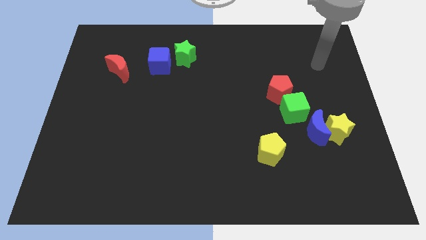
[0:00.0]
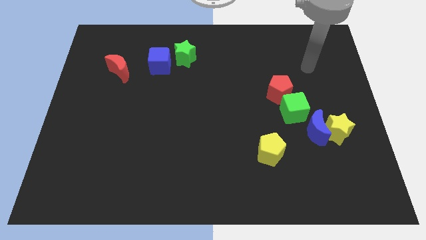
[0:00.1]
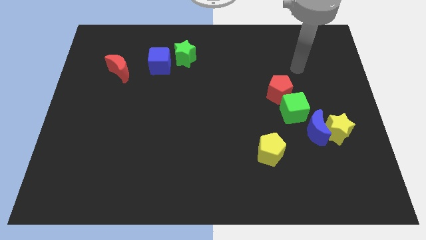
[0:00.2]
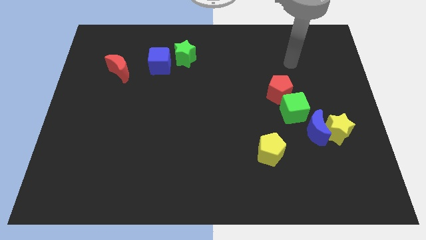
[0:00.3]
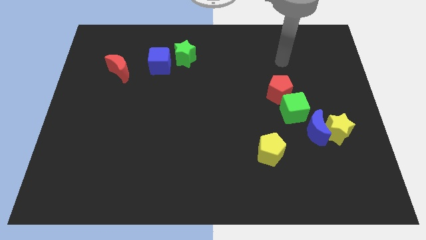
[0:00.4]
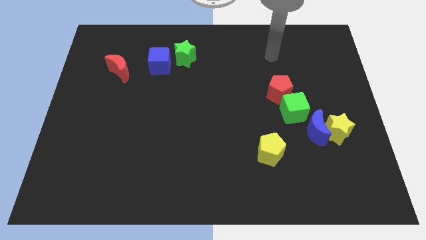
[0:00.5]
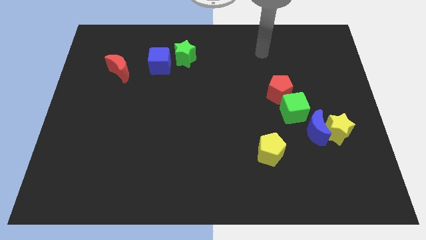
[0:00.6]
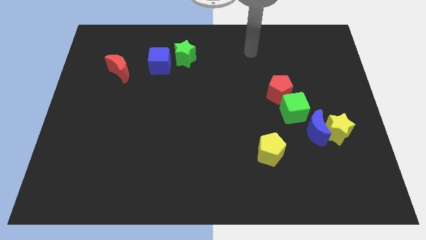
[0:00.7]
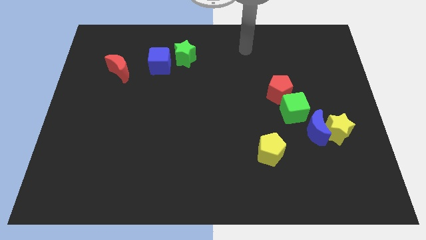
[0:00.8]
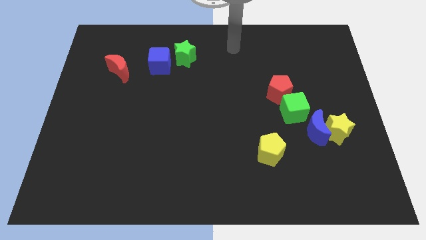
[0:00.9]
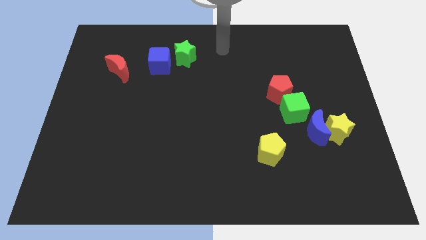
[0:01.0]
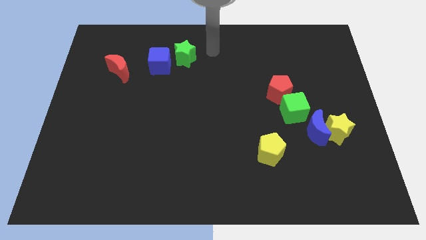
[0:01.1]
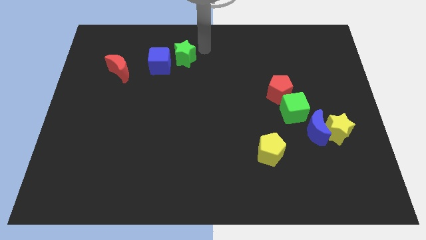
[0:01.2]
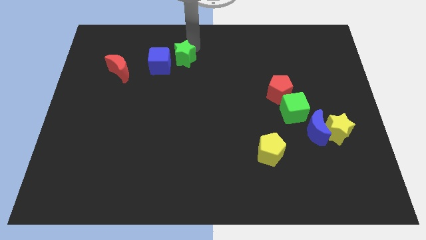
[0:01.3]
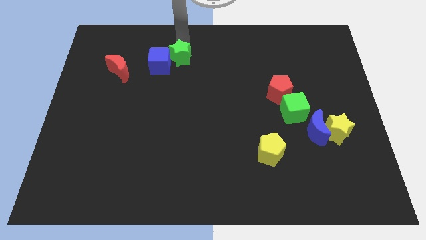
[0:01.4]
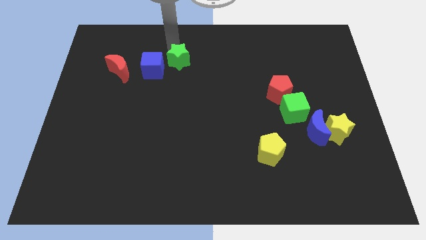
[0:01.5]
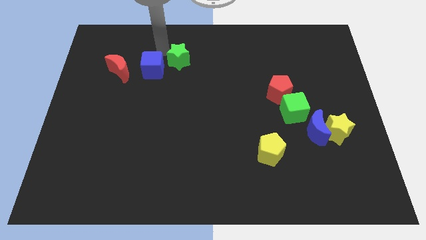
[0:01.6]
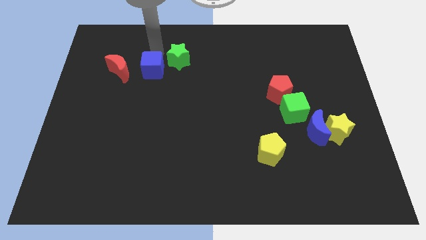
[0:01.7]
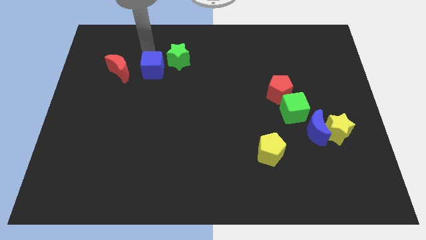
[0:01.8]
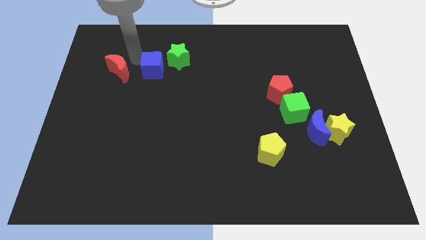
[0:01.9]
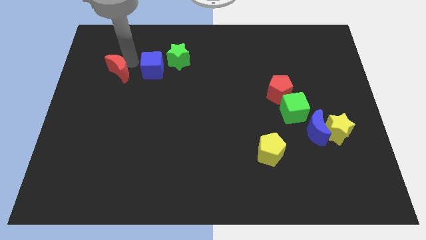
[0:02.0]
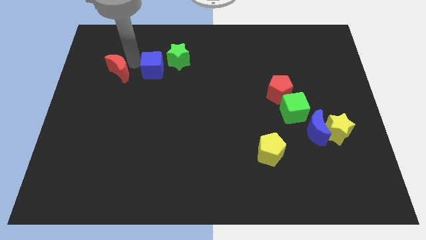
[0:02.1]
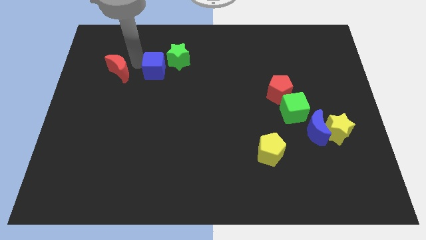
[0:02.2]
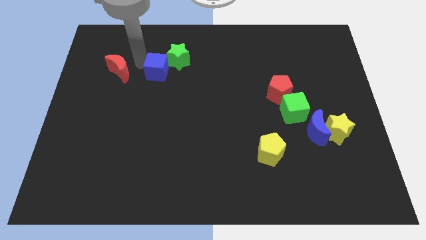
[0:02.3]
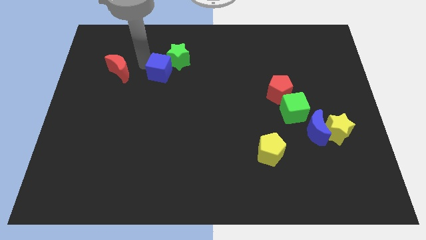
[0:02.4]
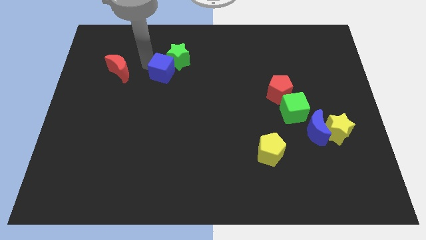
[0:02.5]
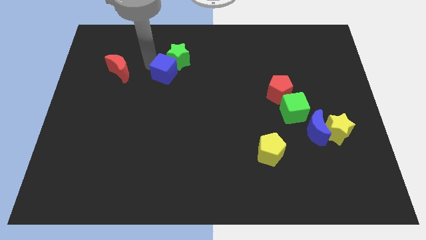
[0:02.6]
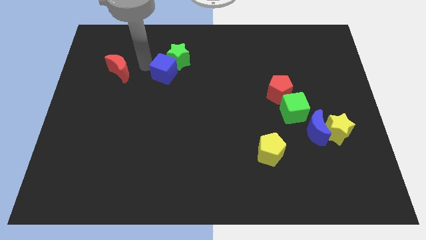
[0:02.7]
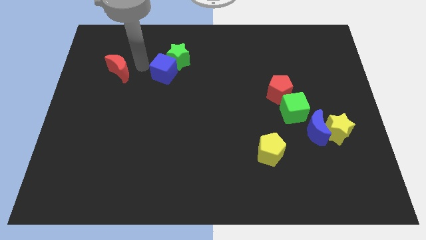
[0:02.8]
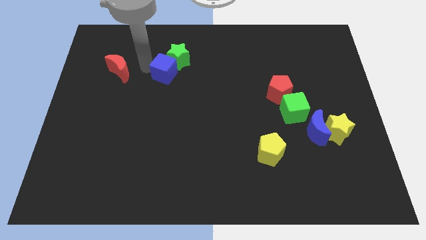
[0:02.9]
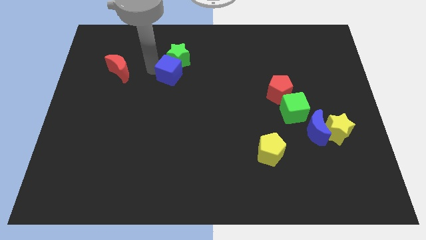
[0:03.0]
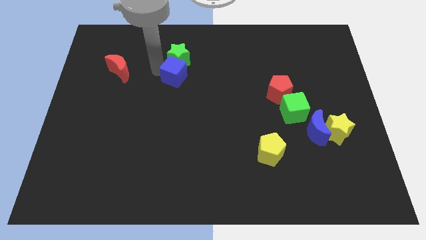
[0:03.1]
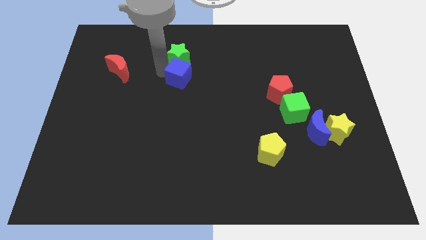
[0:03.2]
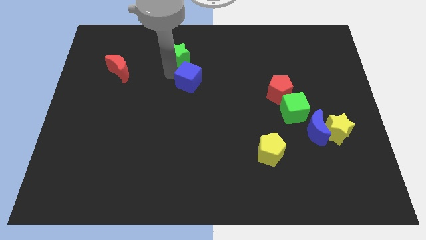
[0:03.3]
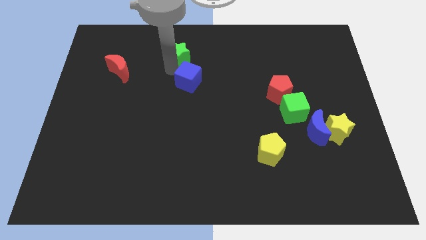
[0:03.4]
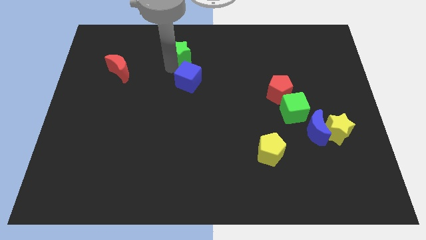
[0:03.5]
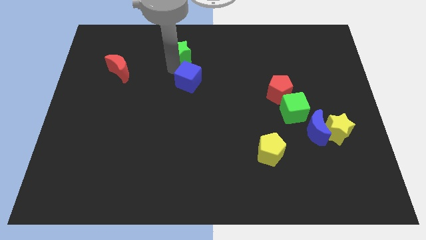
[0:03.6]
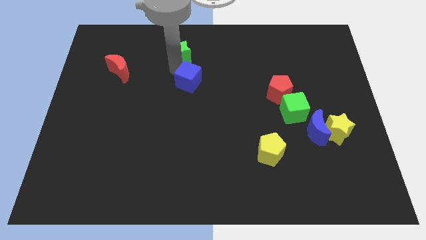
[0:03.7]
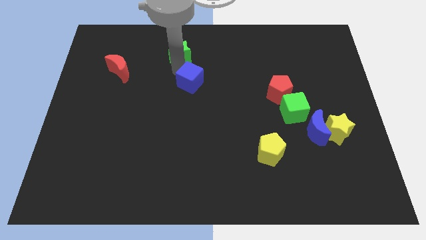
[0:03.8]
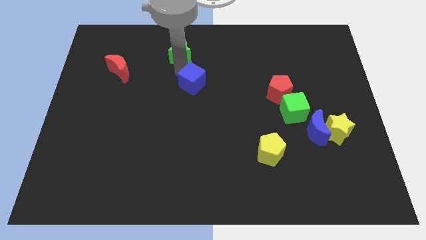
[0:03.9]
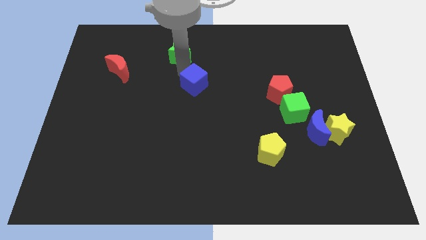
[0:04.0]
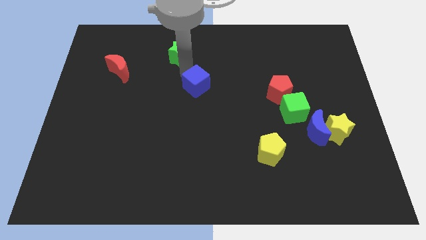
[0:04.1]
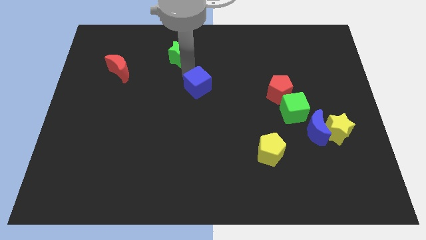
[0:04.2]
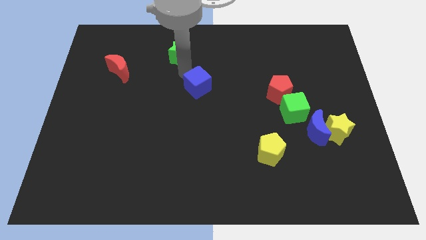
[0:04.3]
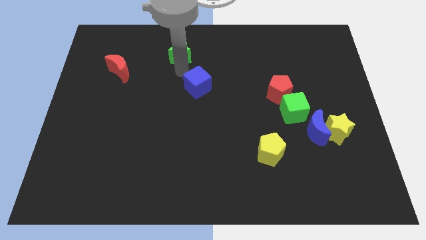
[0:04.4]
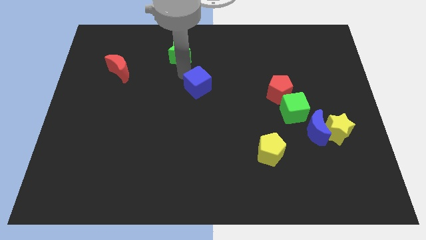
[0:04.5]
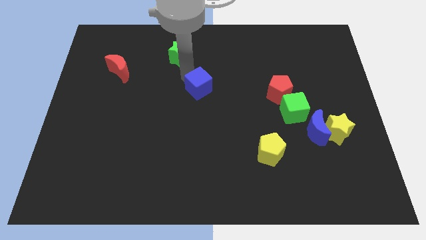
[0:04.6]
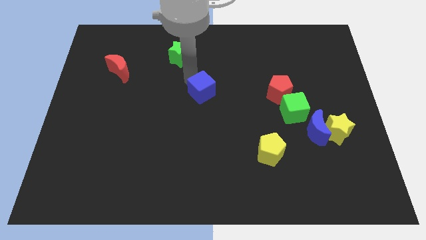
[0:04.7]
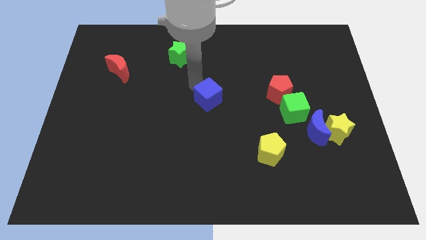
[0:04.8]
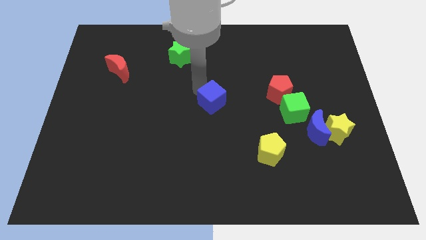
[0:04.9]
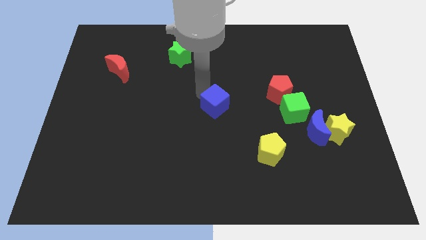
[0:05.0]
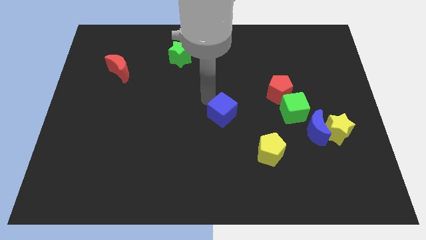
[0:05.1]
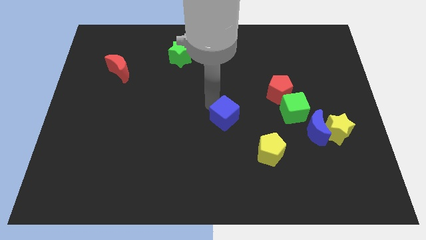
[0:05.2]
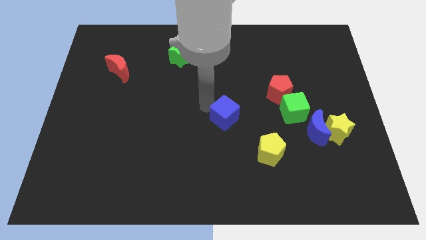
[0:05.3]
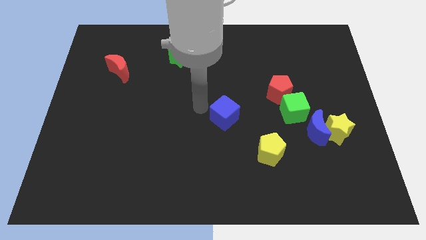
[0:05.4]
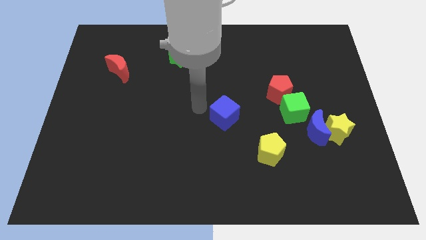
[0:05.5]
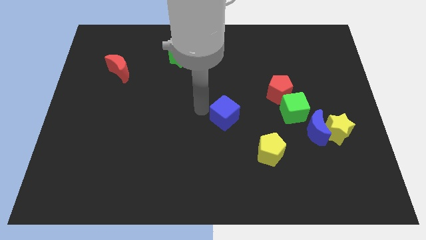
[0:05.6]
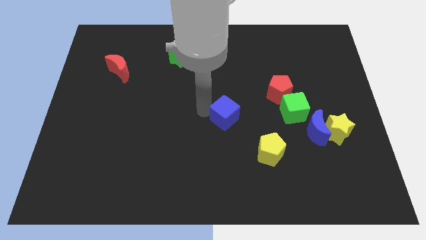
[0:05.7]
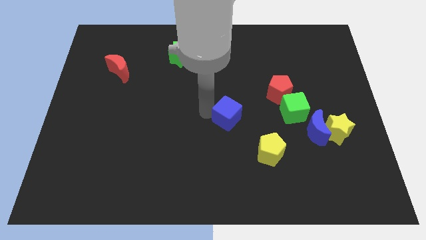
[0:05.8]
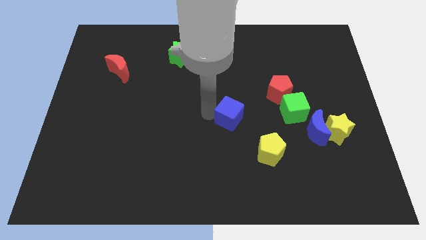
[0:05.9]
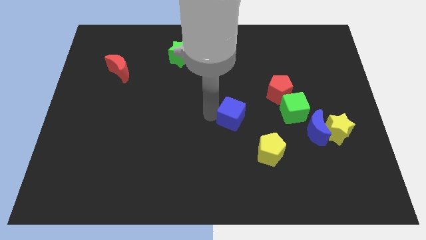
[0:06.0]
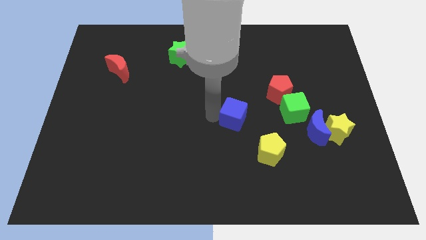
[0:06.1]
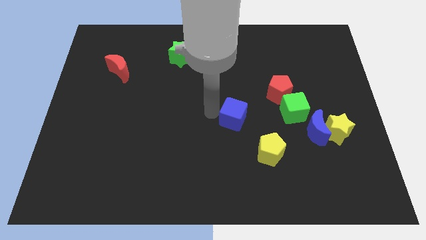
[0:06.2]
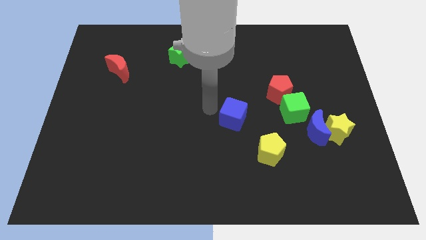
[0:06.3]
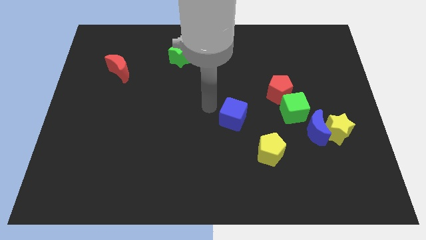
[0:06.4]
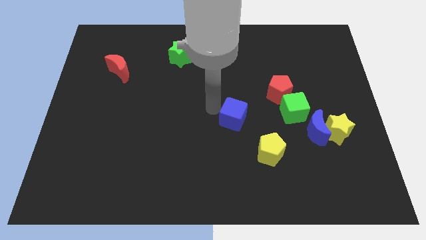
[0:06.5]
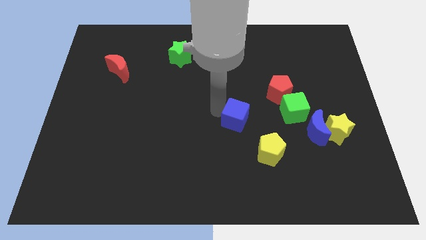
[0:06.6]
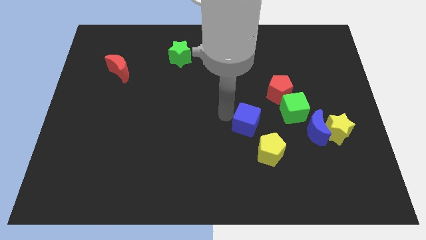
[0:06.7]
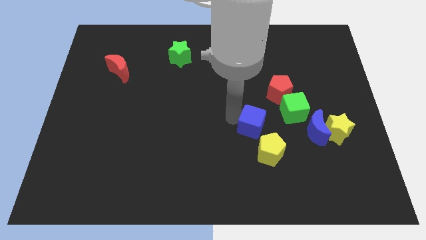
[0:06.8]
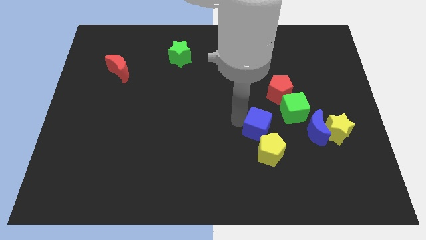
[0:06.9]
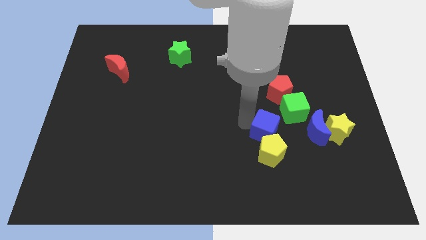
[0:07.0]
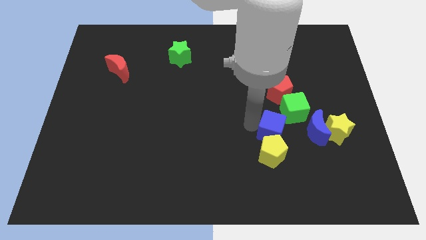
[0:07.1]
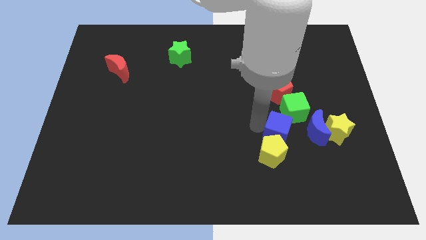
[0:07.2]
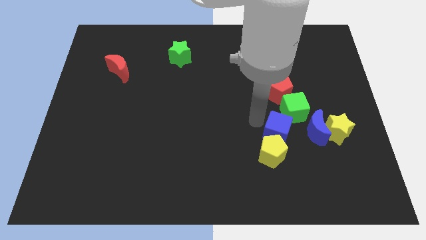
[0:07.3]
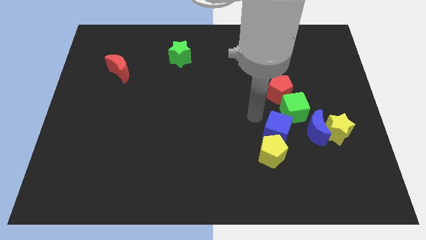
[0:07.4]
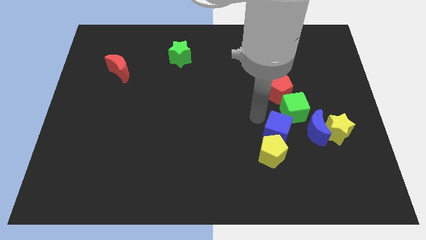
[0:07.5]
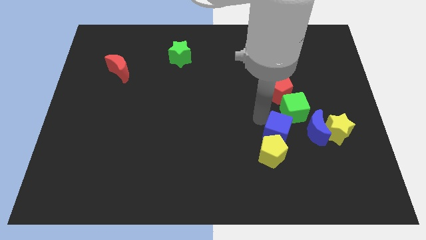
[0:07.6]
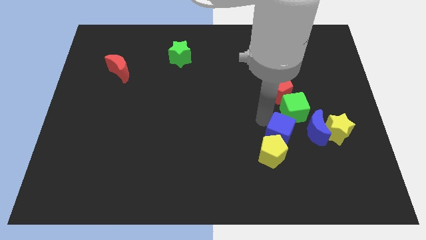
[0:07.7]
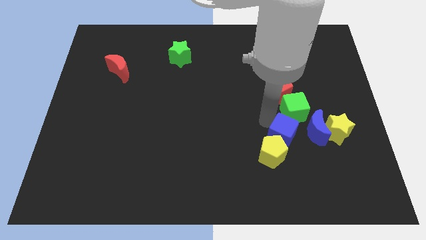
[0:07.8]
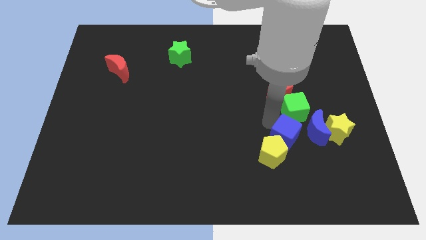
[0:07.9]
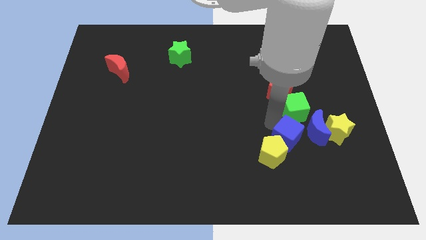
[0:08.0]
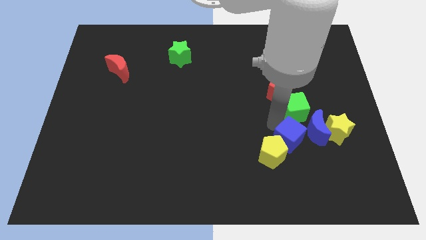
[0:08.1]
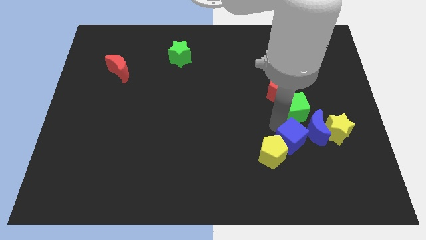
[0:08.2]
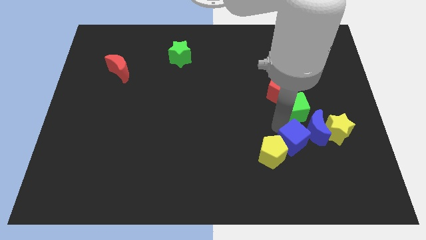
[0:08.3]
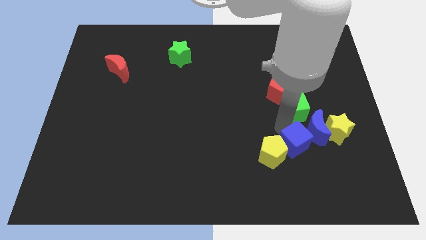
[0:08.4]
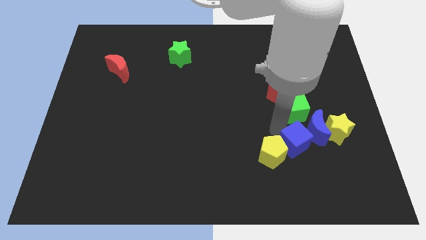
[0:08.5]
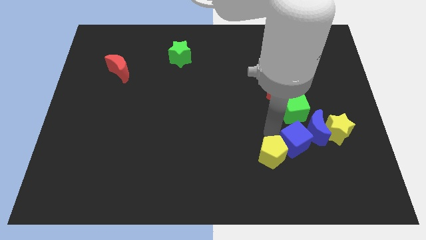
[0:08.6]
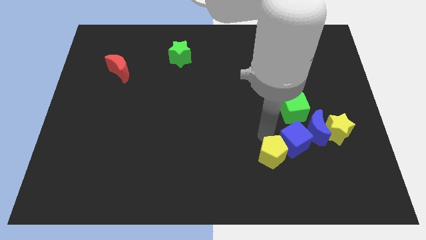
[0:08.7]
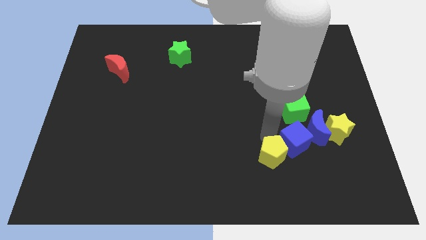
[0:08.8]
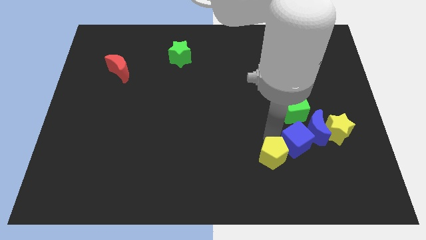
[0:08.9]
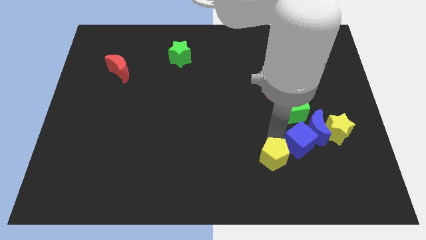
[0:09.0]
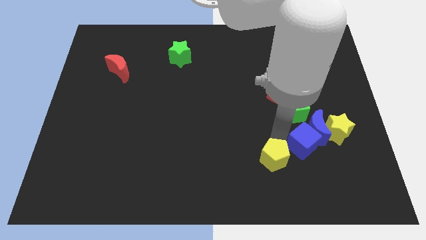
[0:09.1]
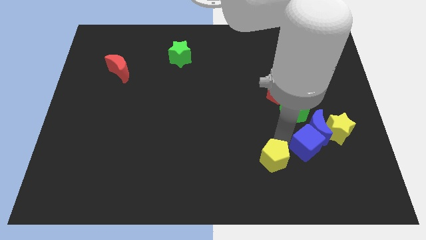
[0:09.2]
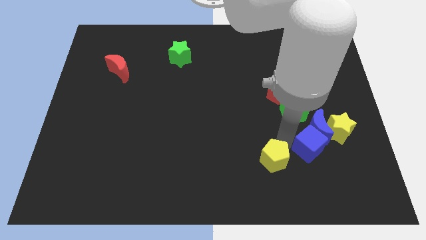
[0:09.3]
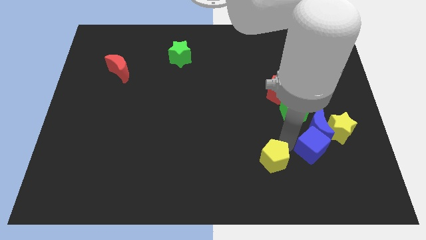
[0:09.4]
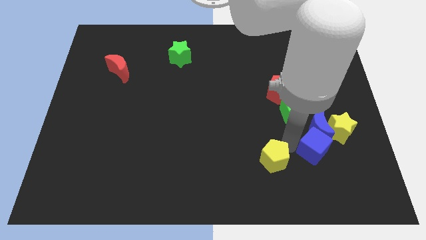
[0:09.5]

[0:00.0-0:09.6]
push the blue cube to the bottom right side of the blue moon
